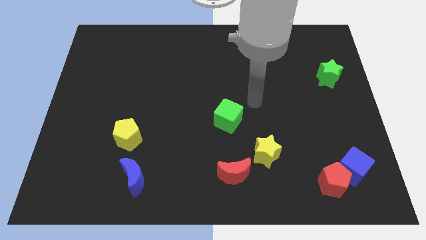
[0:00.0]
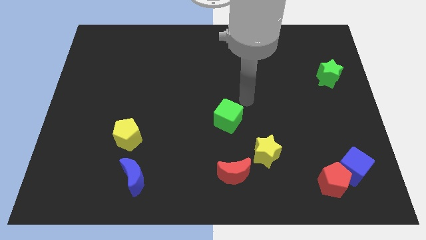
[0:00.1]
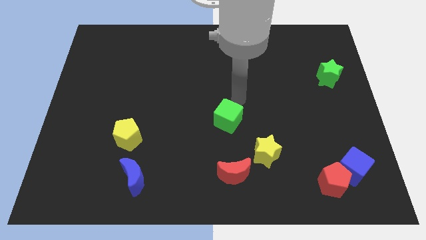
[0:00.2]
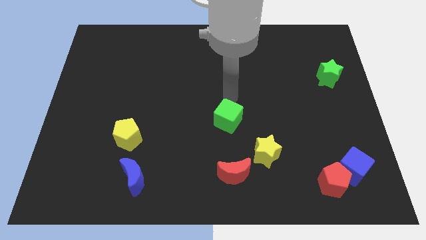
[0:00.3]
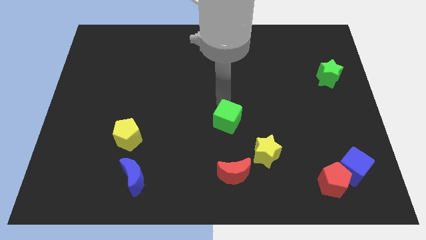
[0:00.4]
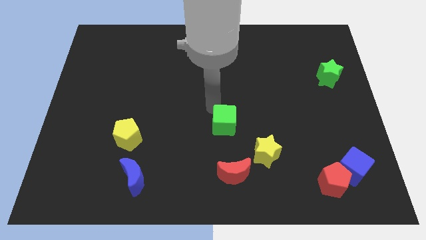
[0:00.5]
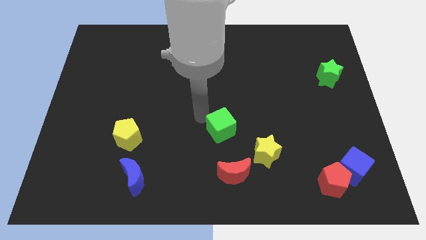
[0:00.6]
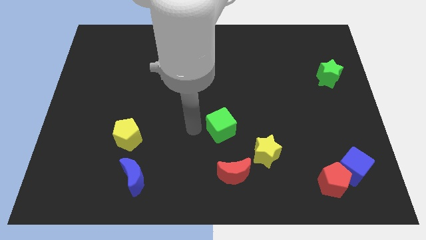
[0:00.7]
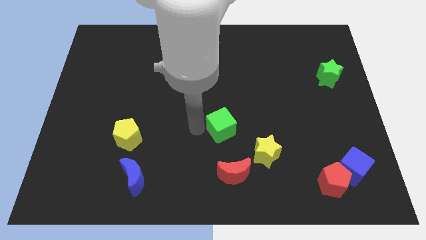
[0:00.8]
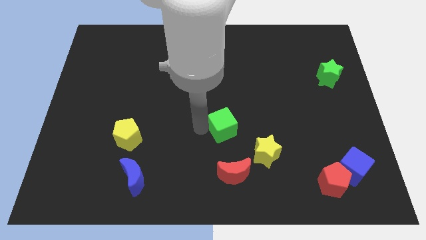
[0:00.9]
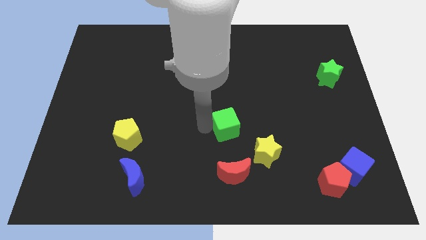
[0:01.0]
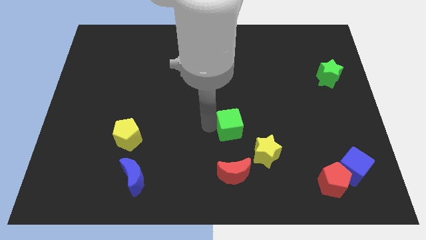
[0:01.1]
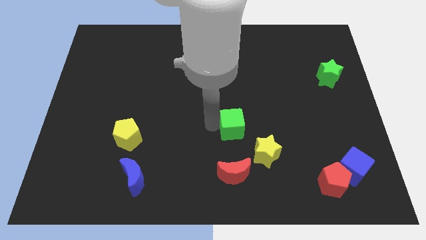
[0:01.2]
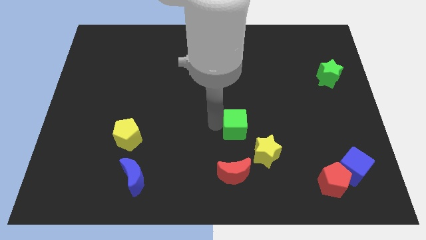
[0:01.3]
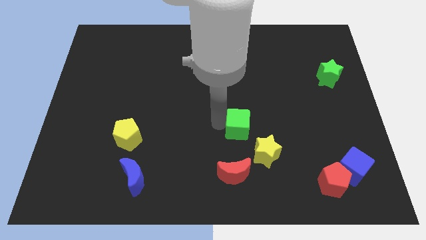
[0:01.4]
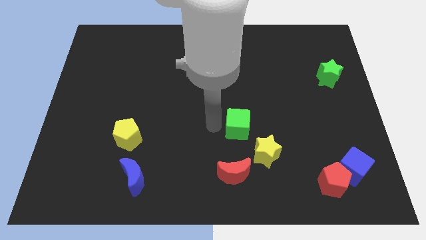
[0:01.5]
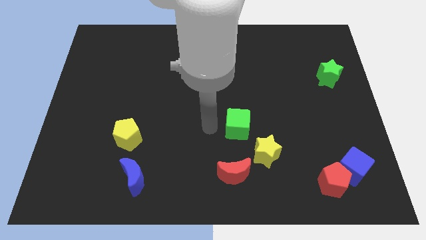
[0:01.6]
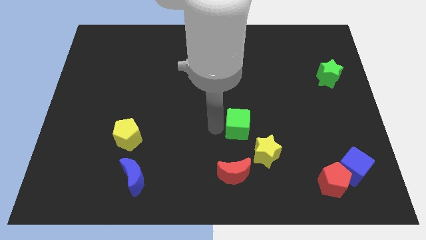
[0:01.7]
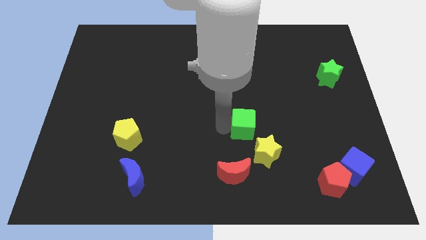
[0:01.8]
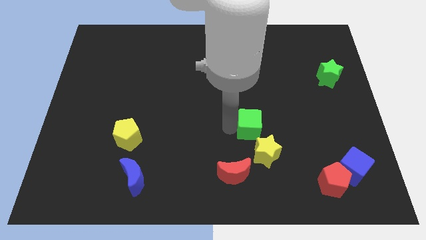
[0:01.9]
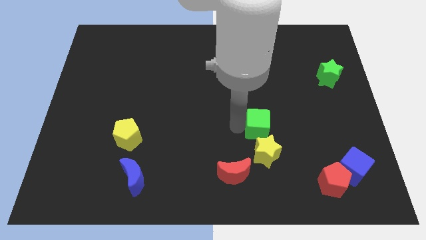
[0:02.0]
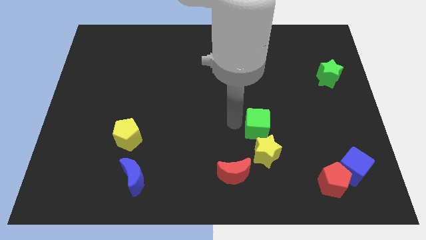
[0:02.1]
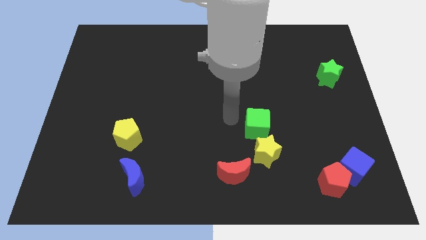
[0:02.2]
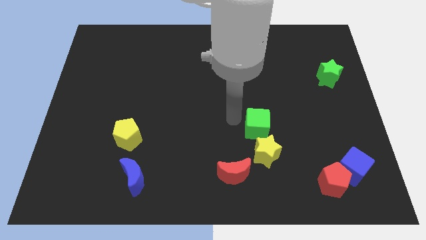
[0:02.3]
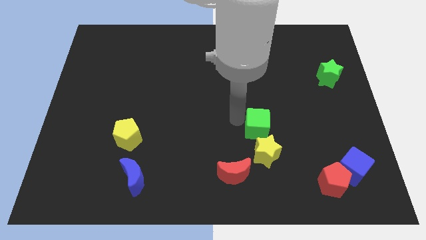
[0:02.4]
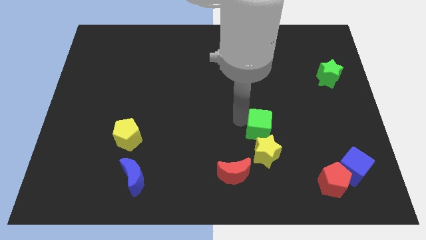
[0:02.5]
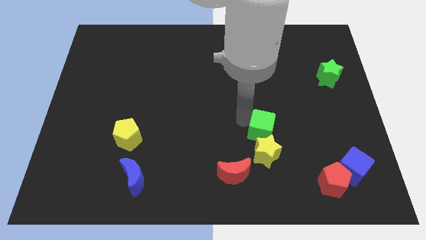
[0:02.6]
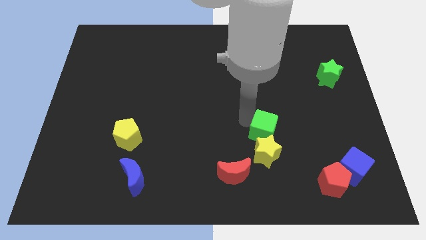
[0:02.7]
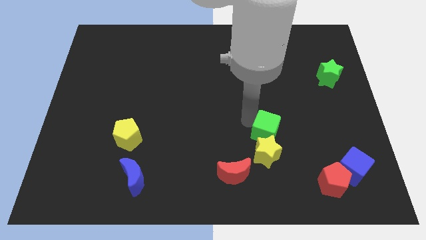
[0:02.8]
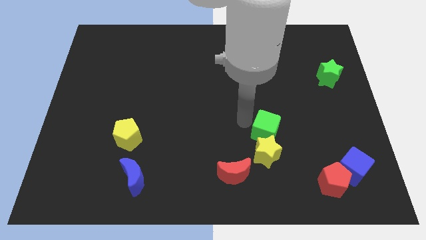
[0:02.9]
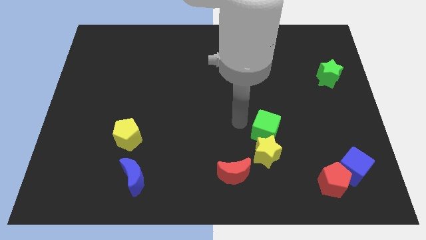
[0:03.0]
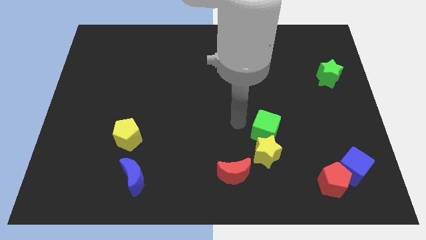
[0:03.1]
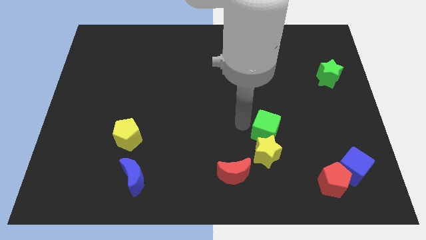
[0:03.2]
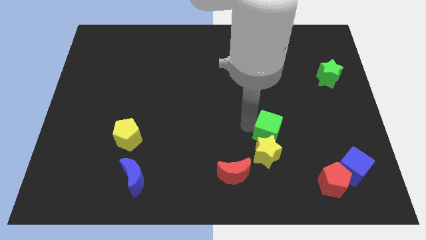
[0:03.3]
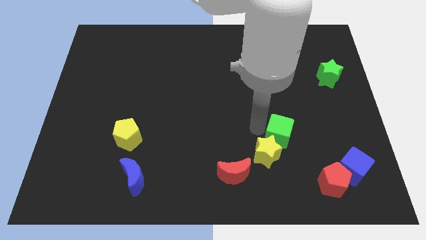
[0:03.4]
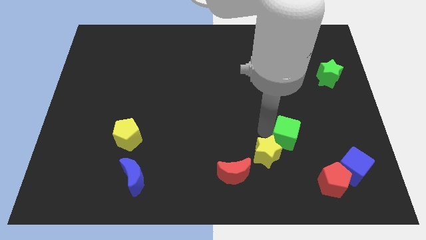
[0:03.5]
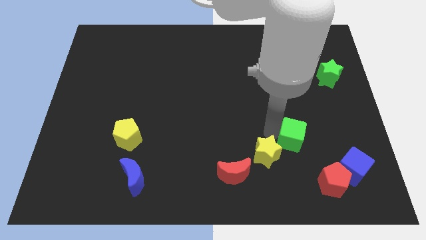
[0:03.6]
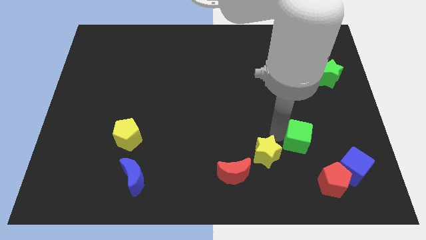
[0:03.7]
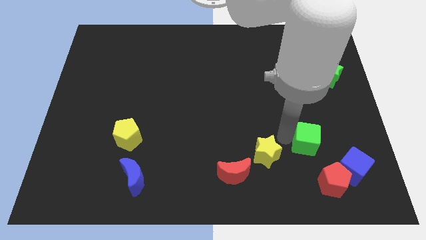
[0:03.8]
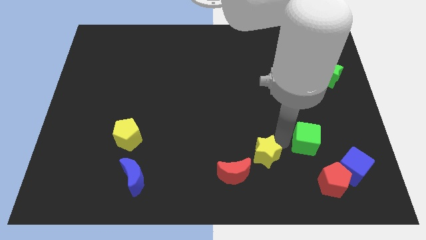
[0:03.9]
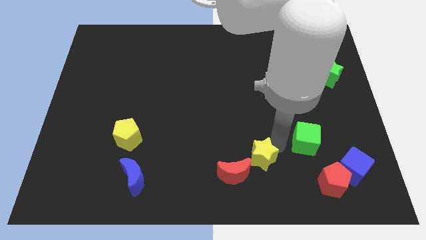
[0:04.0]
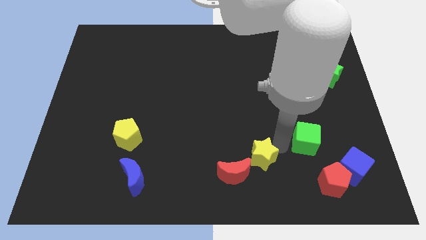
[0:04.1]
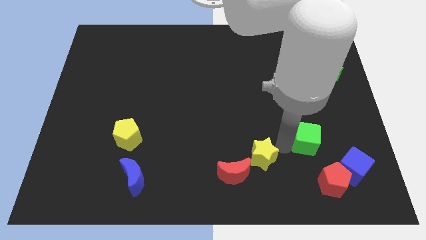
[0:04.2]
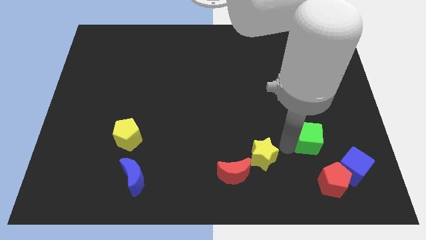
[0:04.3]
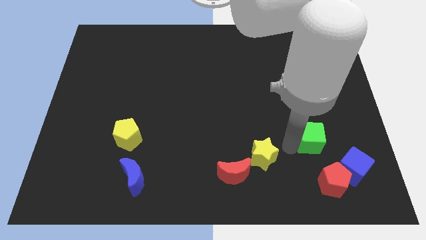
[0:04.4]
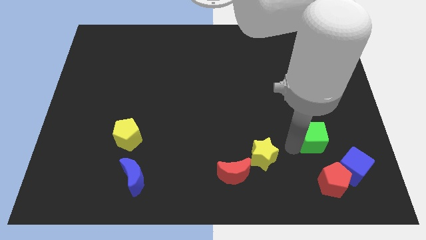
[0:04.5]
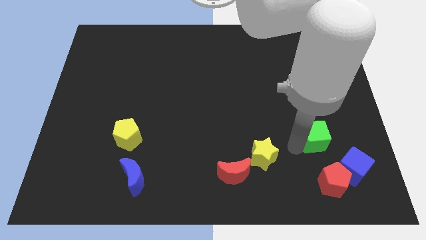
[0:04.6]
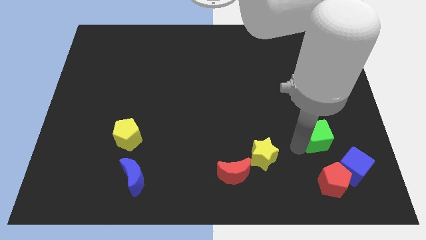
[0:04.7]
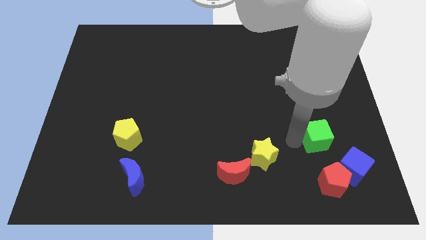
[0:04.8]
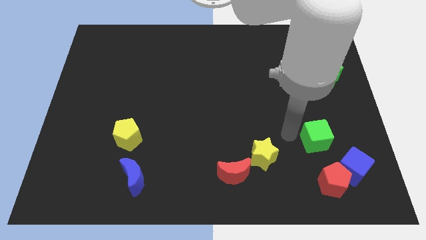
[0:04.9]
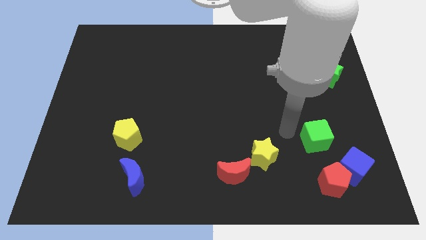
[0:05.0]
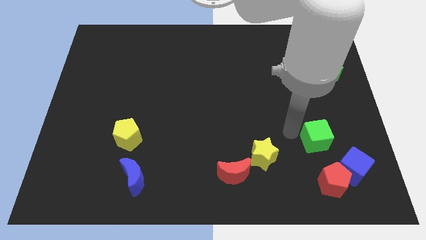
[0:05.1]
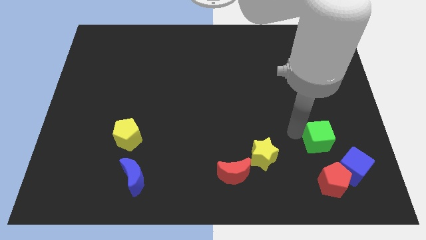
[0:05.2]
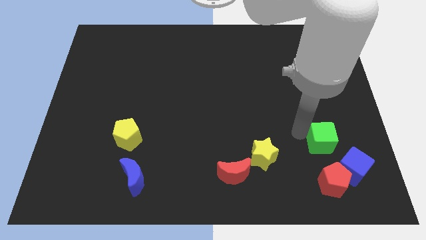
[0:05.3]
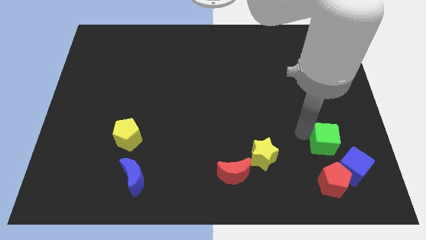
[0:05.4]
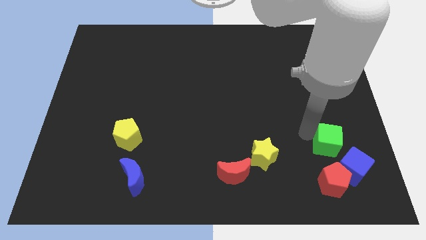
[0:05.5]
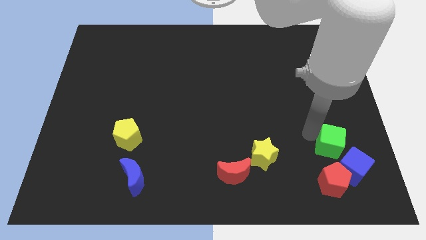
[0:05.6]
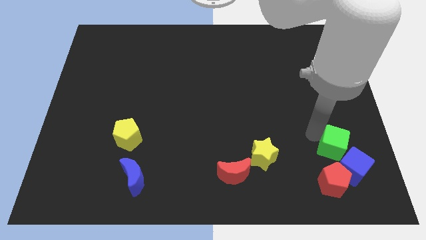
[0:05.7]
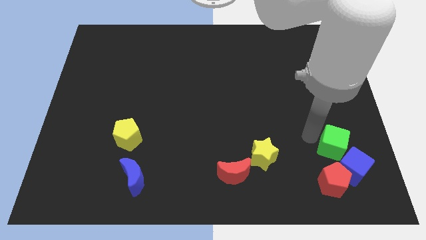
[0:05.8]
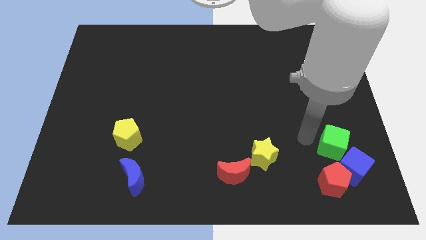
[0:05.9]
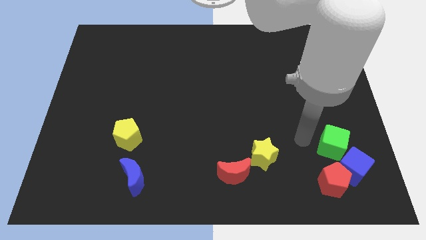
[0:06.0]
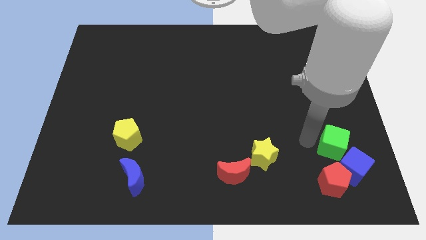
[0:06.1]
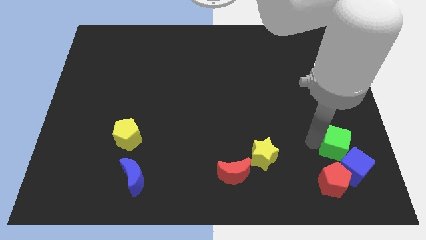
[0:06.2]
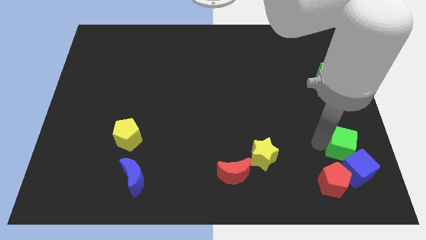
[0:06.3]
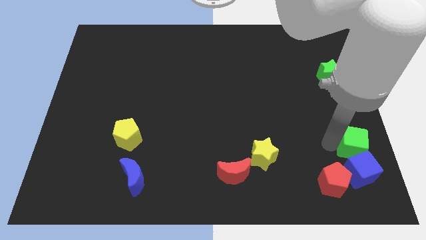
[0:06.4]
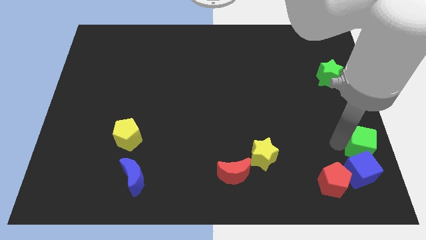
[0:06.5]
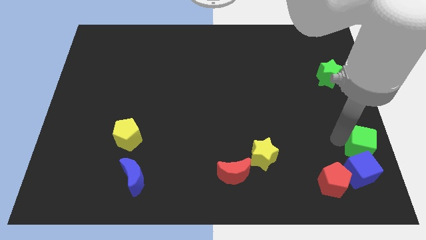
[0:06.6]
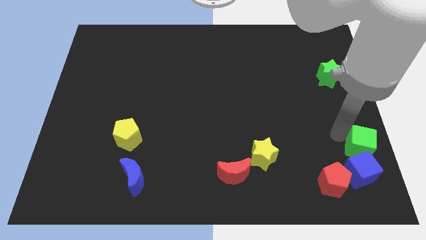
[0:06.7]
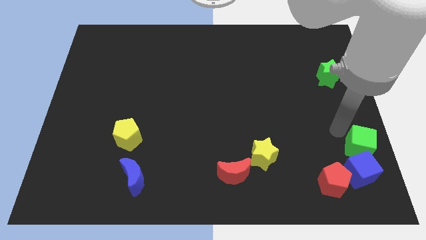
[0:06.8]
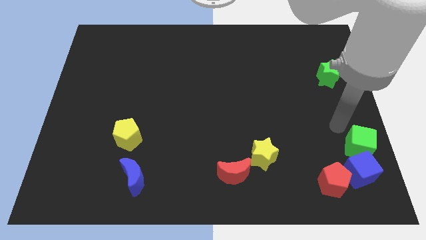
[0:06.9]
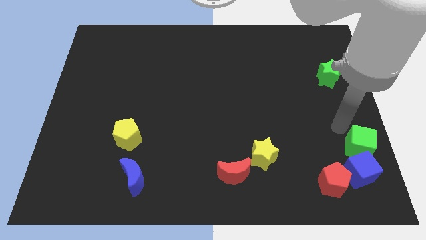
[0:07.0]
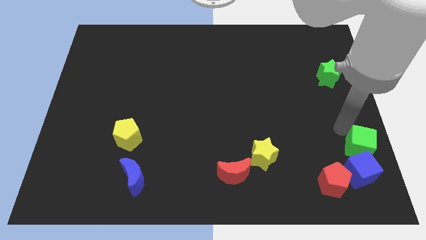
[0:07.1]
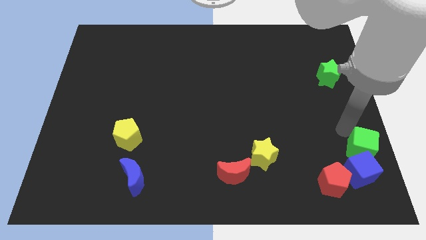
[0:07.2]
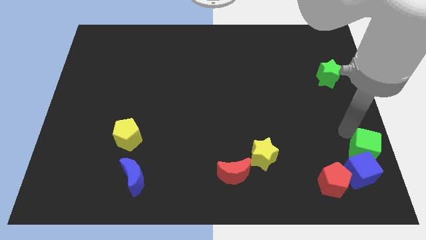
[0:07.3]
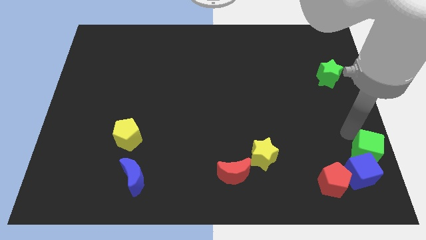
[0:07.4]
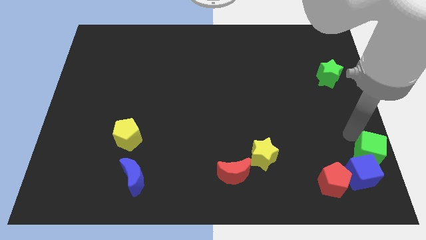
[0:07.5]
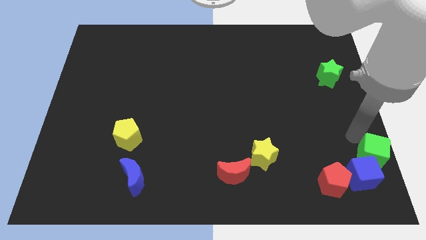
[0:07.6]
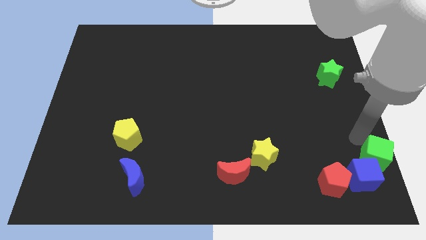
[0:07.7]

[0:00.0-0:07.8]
put the green cube to the bottom right corner
